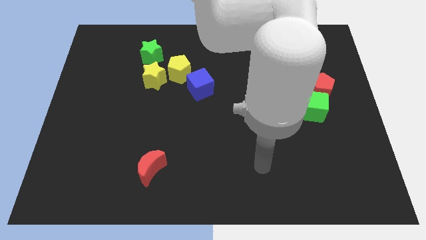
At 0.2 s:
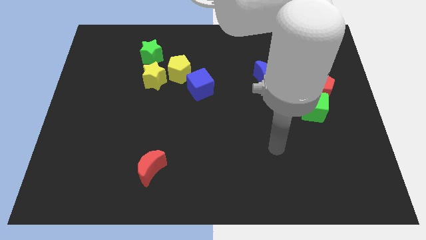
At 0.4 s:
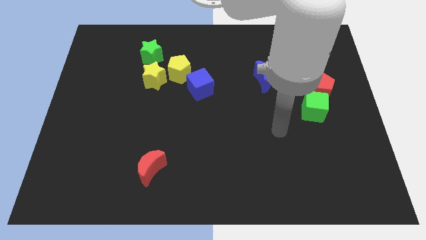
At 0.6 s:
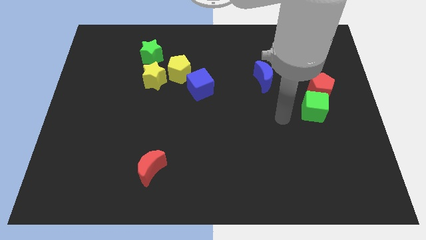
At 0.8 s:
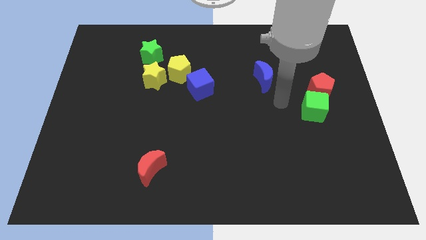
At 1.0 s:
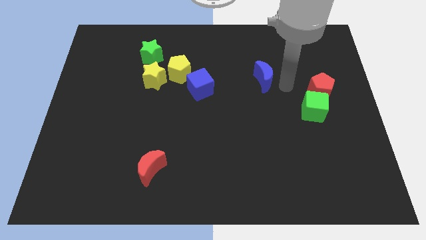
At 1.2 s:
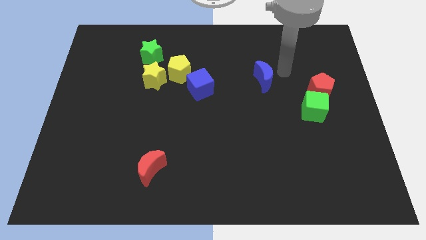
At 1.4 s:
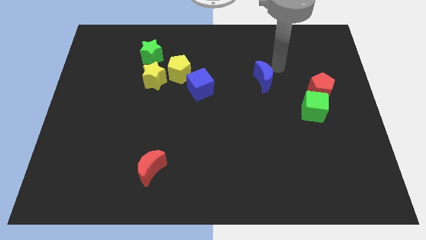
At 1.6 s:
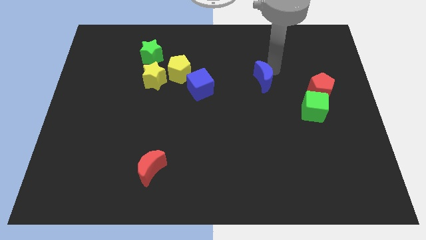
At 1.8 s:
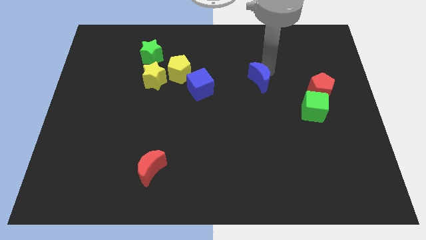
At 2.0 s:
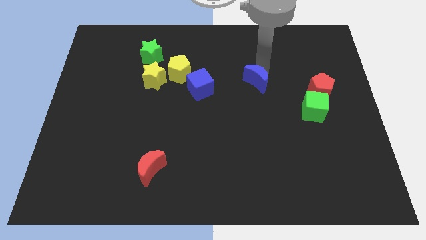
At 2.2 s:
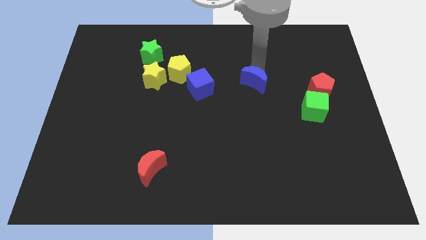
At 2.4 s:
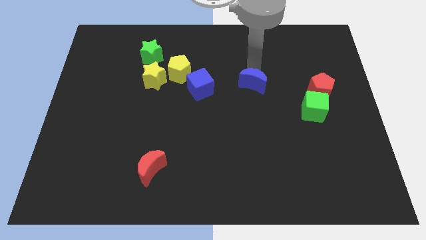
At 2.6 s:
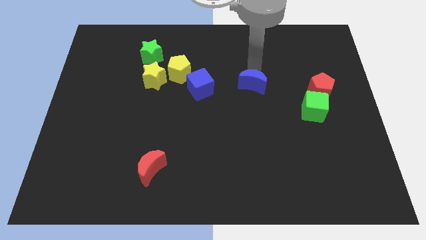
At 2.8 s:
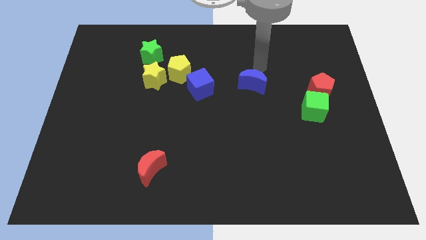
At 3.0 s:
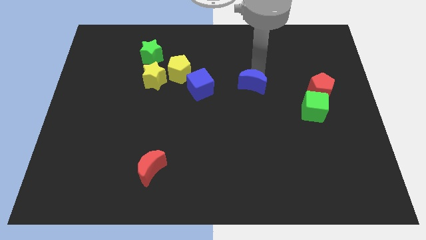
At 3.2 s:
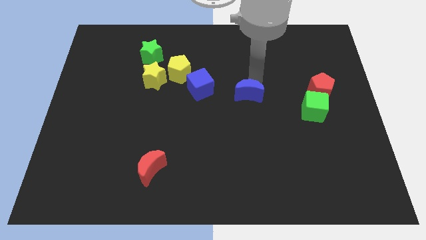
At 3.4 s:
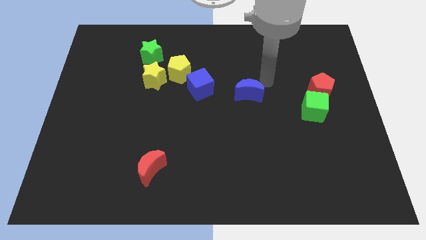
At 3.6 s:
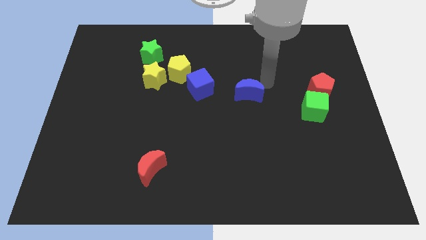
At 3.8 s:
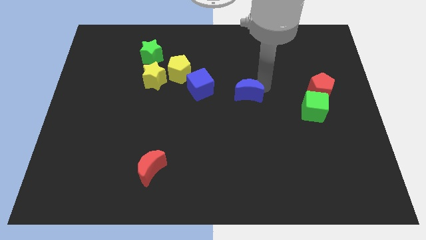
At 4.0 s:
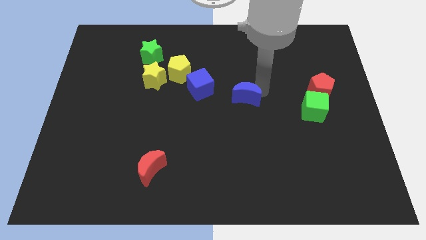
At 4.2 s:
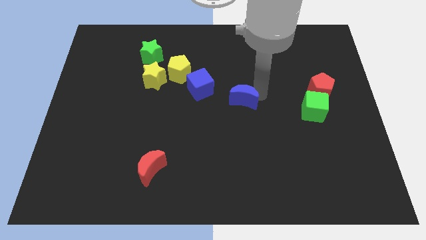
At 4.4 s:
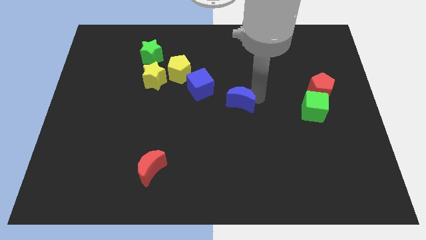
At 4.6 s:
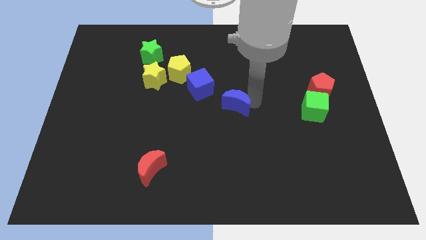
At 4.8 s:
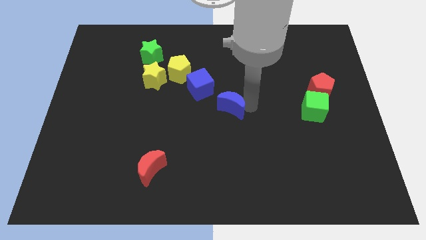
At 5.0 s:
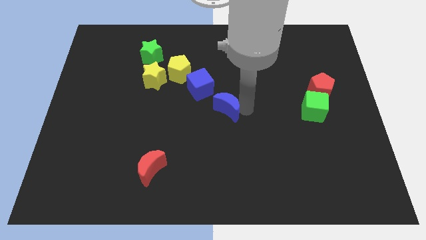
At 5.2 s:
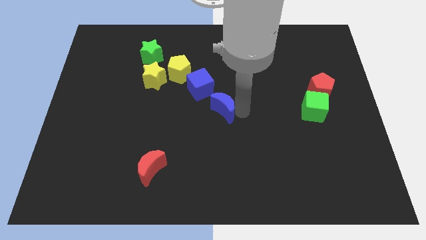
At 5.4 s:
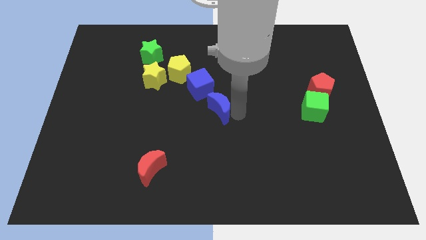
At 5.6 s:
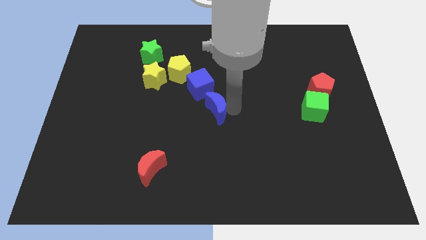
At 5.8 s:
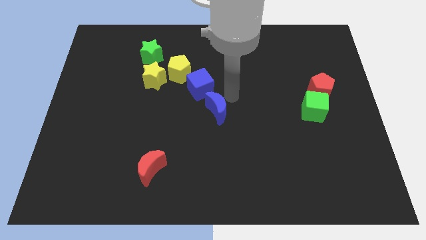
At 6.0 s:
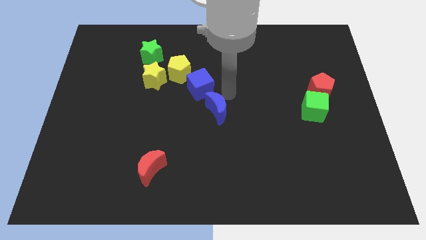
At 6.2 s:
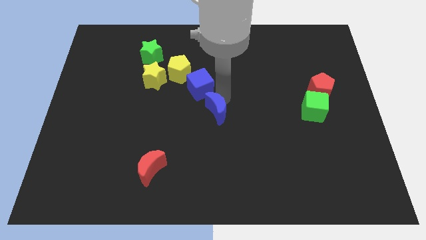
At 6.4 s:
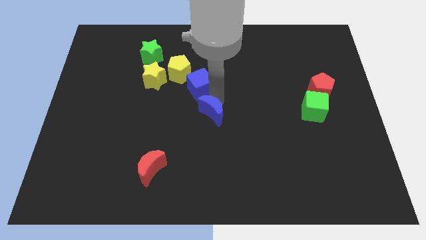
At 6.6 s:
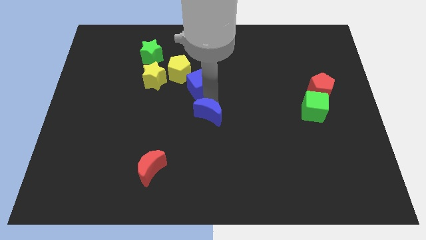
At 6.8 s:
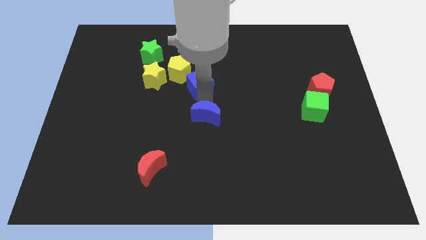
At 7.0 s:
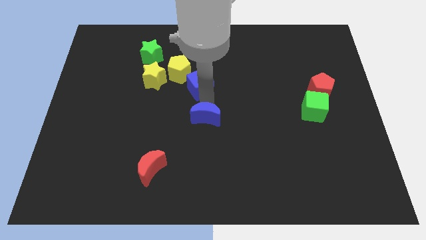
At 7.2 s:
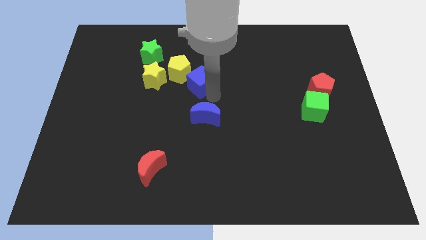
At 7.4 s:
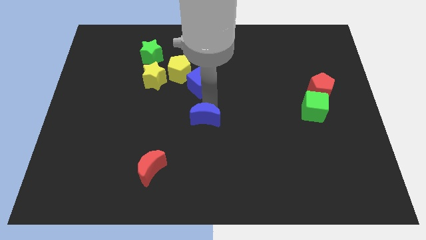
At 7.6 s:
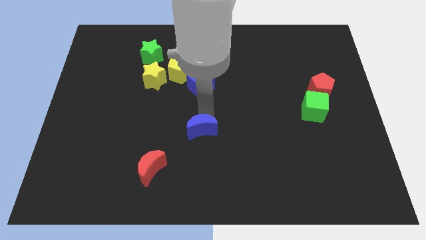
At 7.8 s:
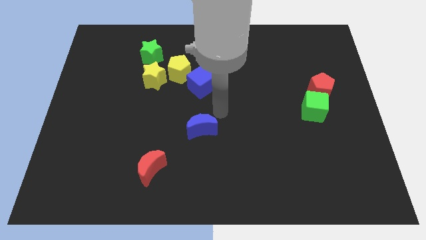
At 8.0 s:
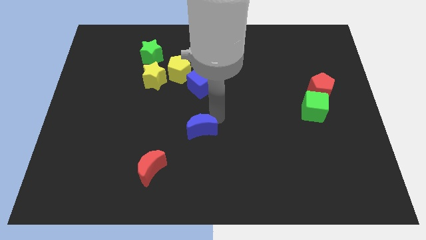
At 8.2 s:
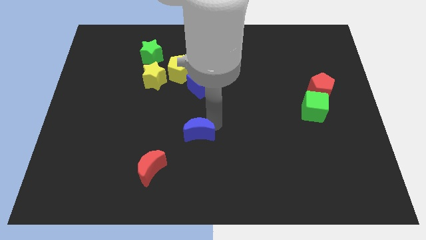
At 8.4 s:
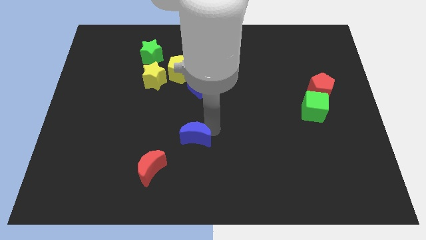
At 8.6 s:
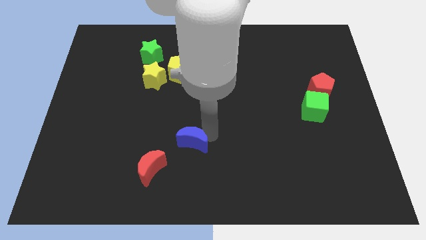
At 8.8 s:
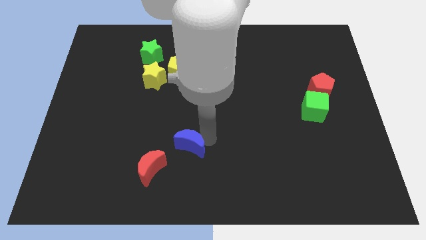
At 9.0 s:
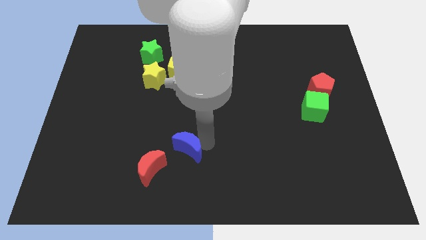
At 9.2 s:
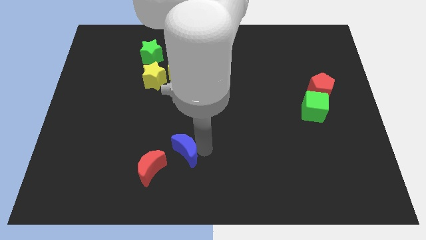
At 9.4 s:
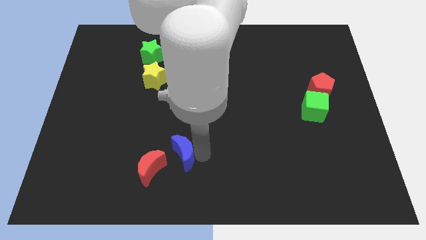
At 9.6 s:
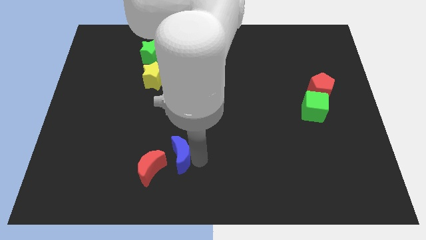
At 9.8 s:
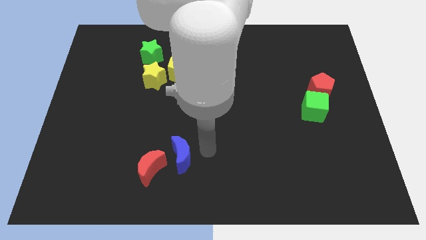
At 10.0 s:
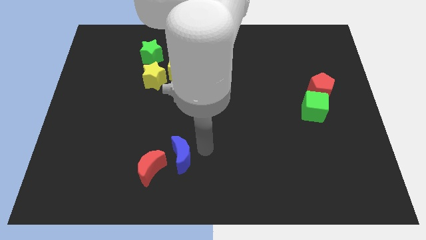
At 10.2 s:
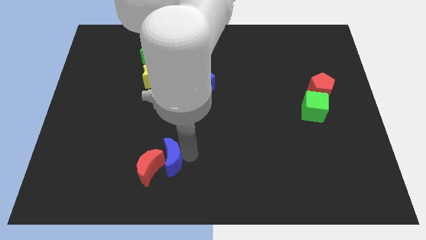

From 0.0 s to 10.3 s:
put the blue moon towards the red moon

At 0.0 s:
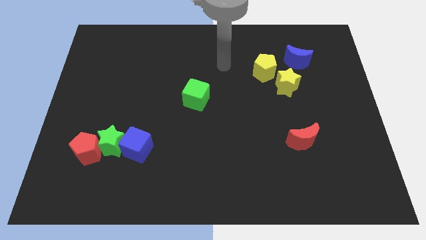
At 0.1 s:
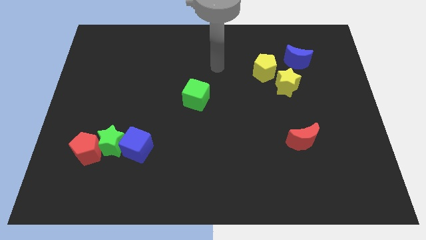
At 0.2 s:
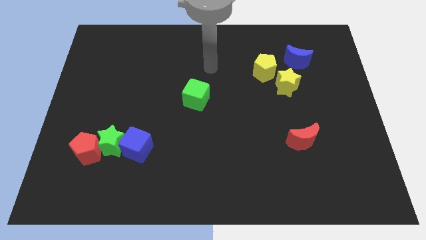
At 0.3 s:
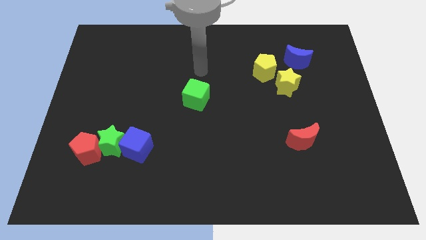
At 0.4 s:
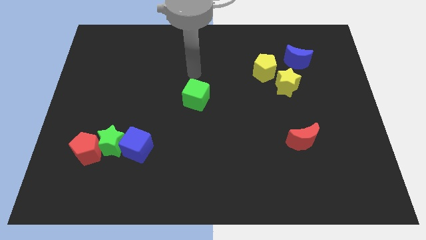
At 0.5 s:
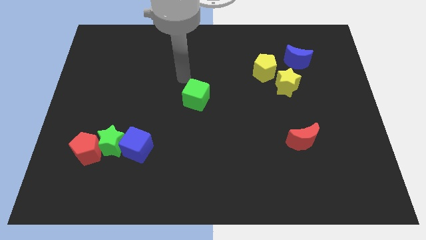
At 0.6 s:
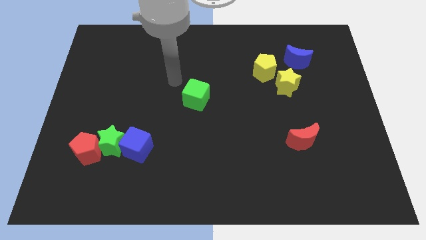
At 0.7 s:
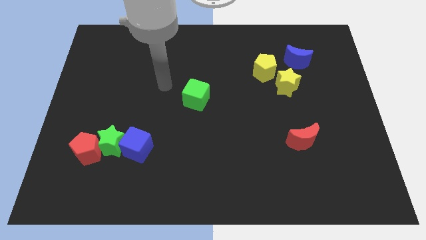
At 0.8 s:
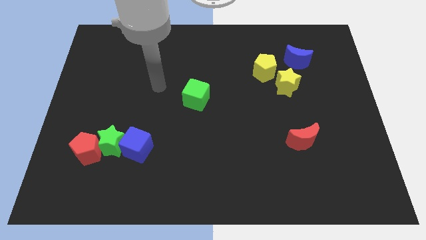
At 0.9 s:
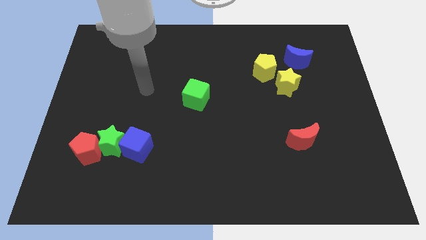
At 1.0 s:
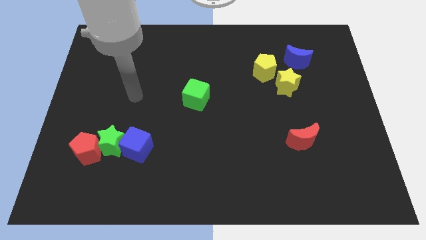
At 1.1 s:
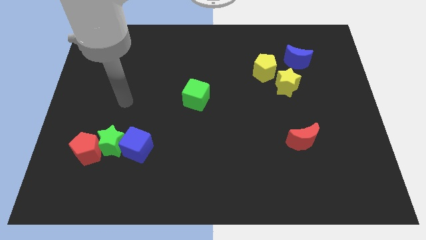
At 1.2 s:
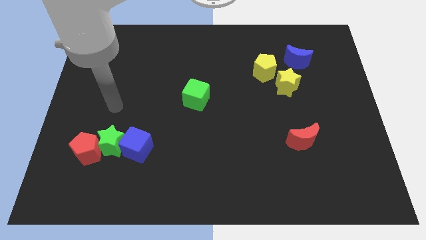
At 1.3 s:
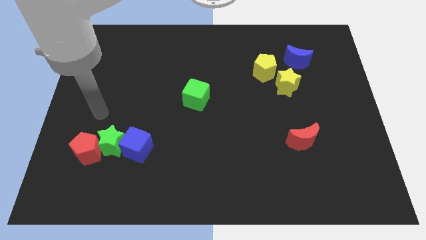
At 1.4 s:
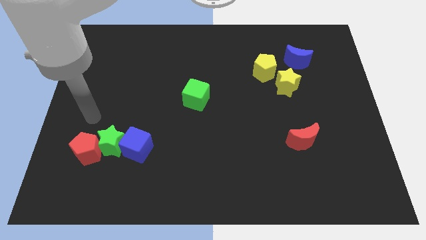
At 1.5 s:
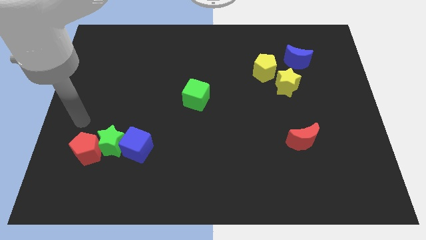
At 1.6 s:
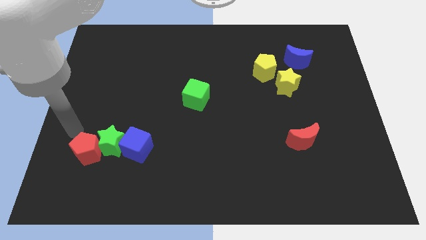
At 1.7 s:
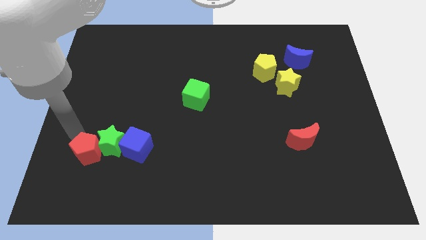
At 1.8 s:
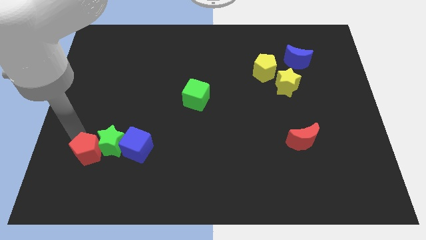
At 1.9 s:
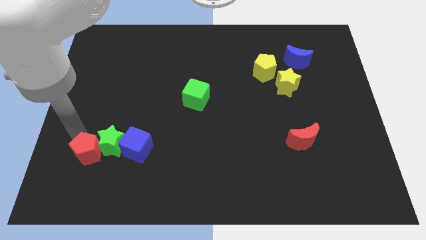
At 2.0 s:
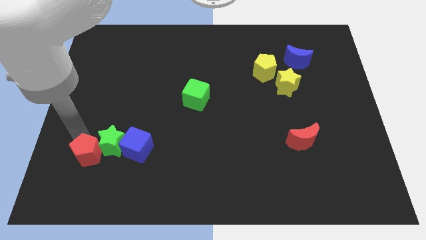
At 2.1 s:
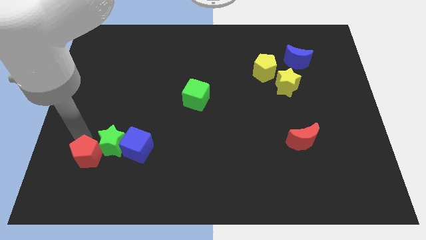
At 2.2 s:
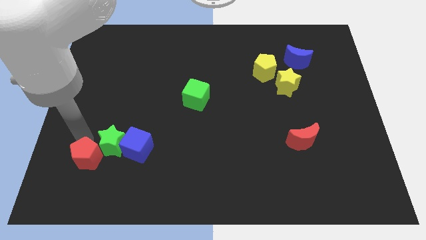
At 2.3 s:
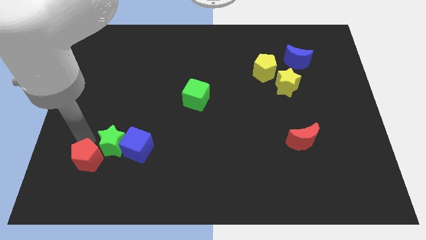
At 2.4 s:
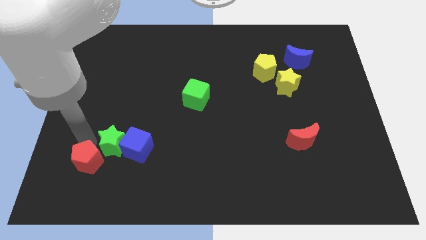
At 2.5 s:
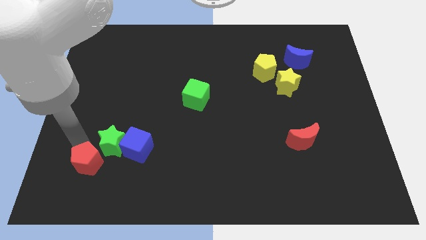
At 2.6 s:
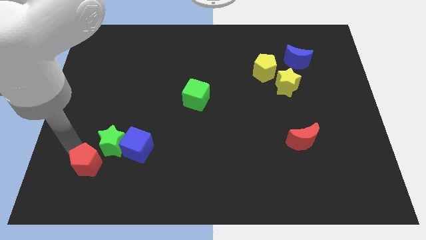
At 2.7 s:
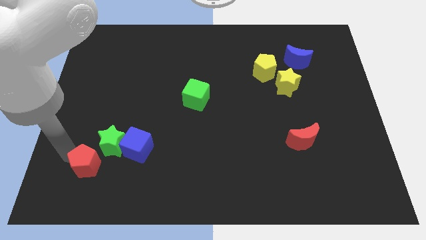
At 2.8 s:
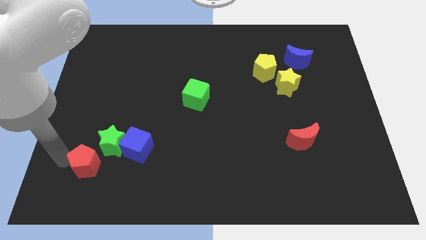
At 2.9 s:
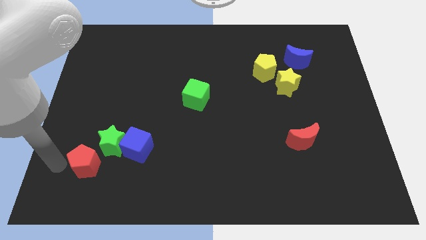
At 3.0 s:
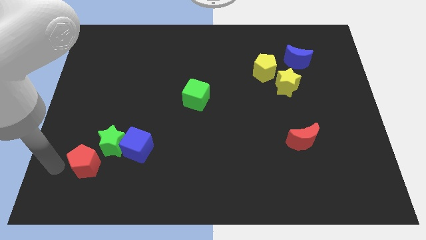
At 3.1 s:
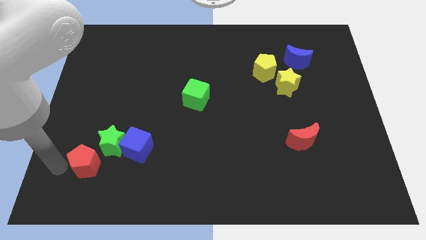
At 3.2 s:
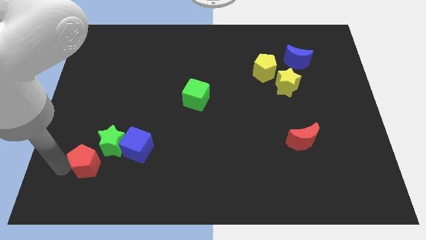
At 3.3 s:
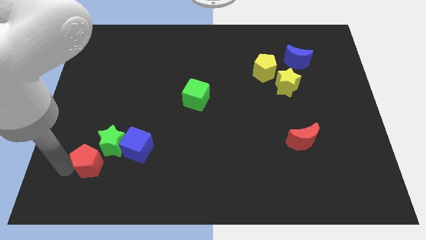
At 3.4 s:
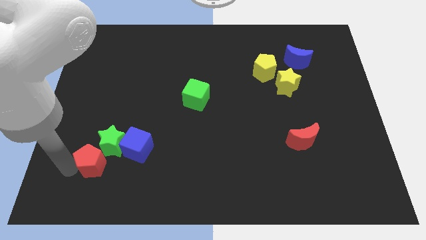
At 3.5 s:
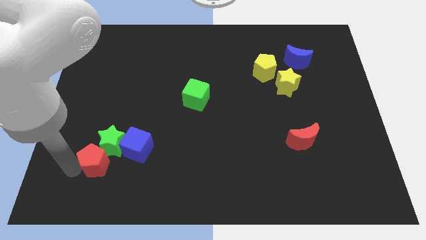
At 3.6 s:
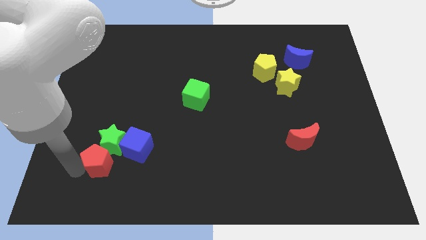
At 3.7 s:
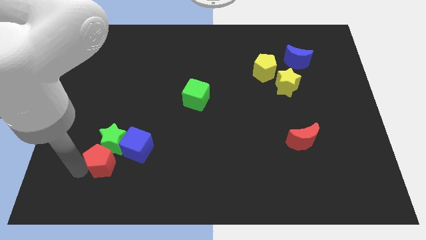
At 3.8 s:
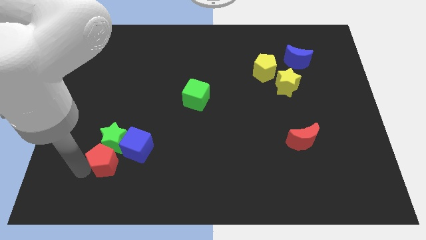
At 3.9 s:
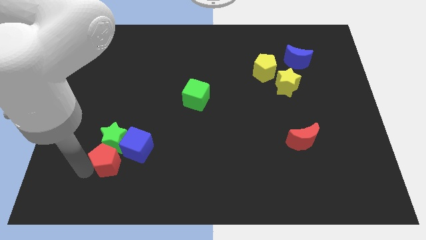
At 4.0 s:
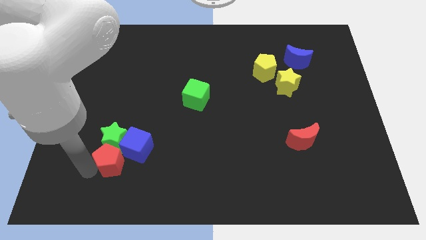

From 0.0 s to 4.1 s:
move the red pentagon close to the blue cube
